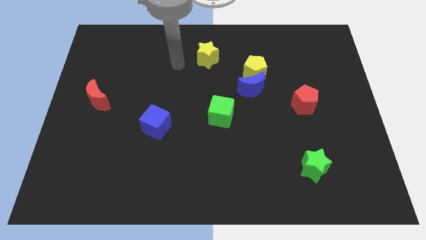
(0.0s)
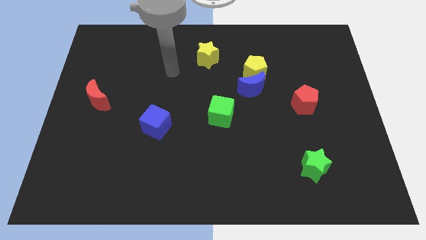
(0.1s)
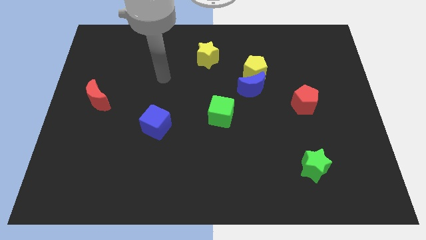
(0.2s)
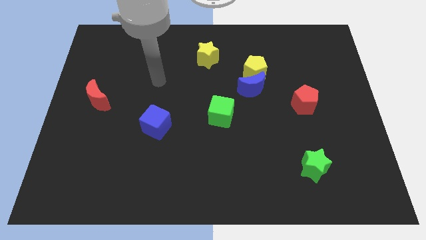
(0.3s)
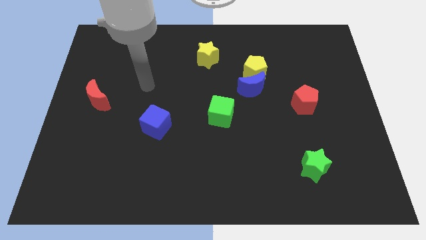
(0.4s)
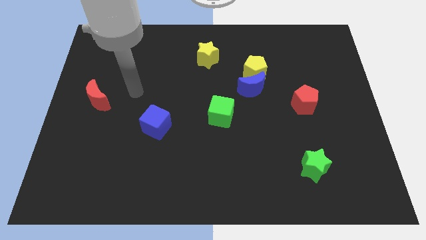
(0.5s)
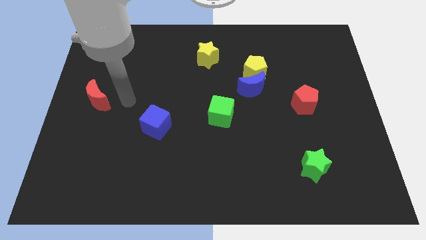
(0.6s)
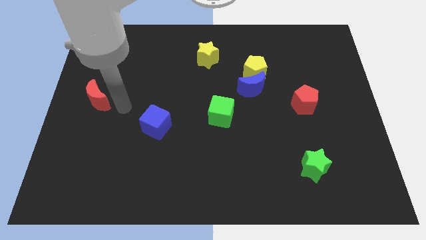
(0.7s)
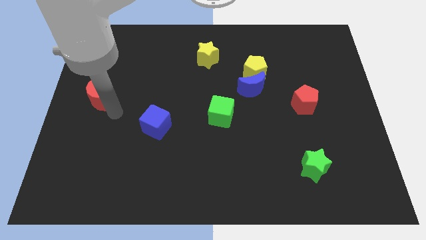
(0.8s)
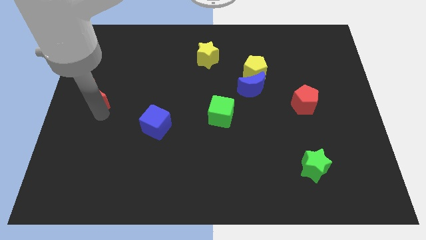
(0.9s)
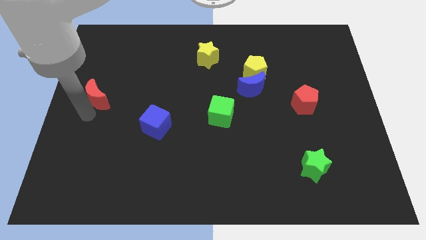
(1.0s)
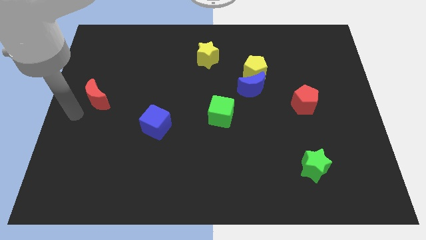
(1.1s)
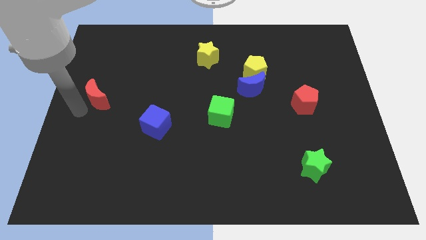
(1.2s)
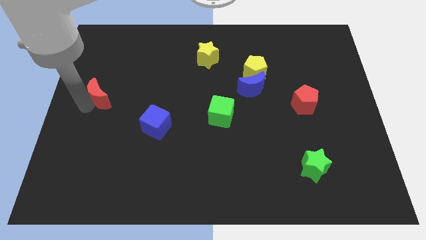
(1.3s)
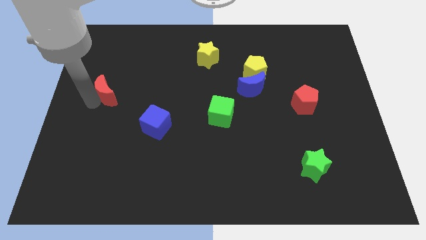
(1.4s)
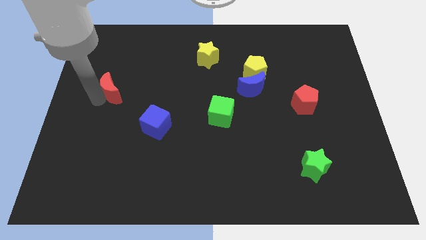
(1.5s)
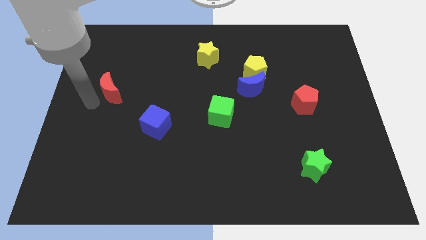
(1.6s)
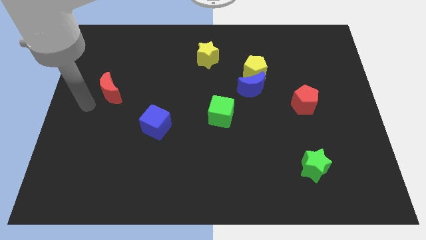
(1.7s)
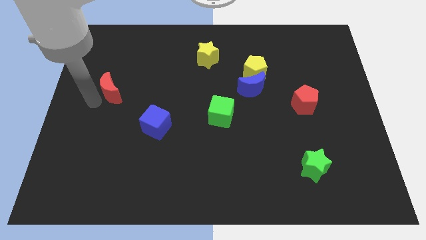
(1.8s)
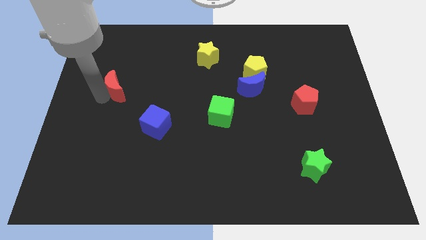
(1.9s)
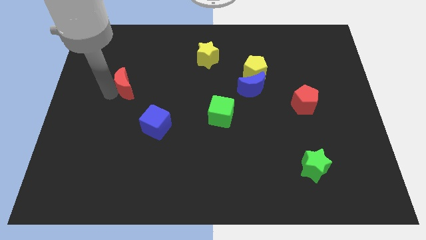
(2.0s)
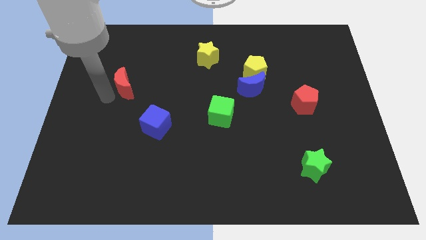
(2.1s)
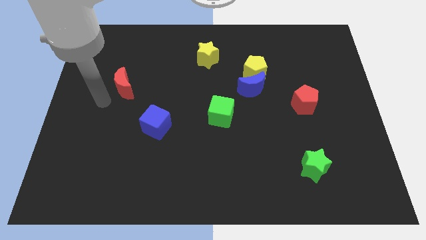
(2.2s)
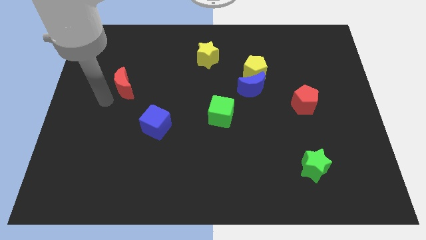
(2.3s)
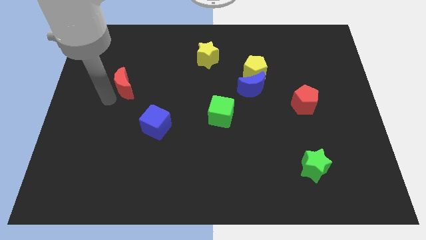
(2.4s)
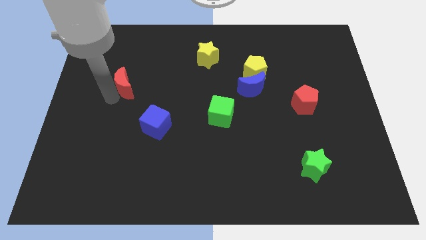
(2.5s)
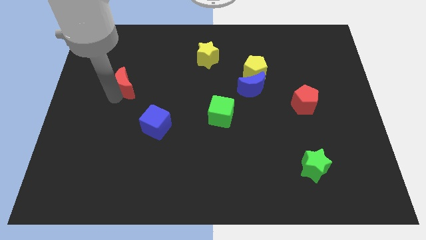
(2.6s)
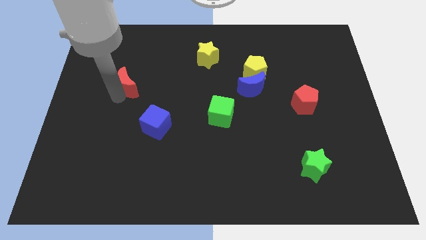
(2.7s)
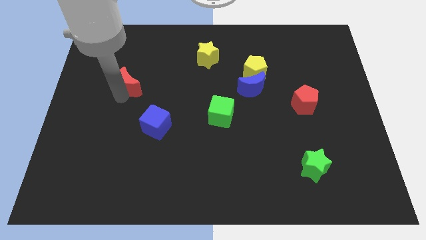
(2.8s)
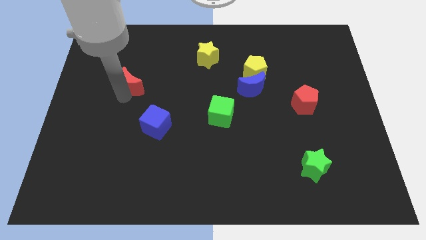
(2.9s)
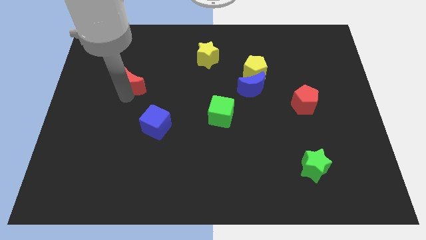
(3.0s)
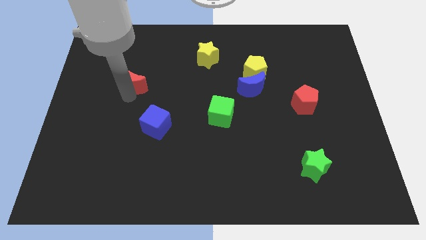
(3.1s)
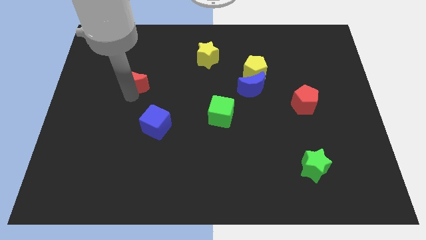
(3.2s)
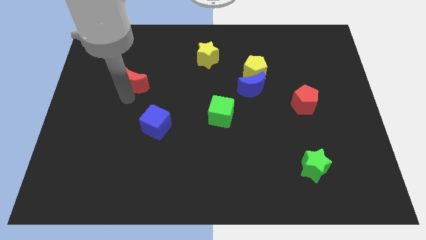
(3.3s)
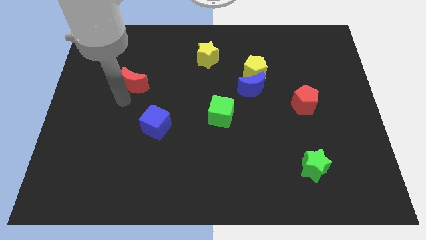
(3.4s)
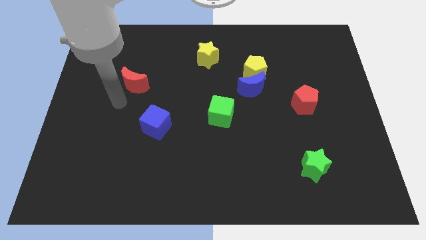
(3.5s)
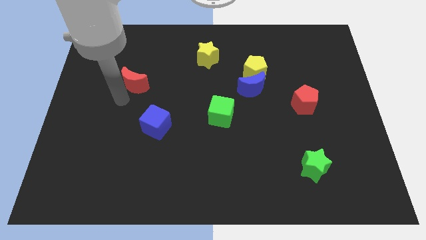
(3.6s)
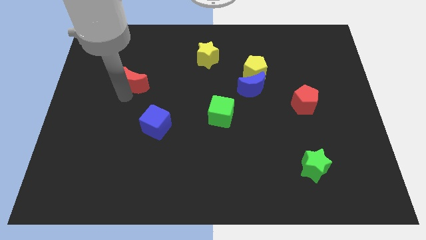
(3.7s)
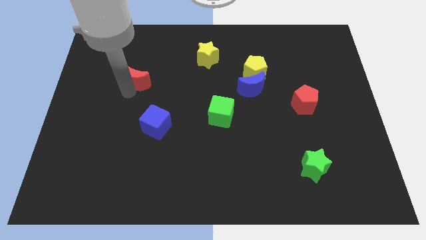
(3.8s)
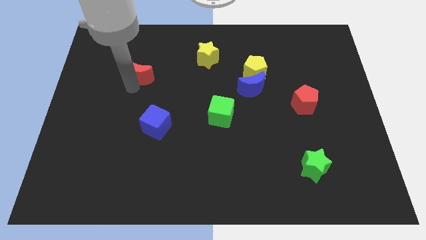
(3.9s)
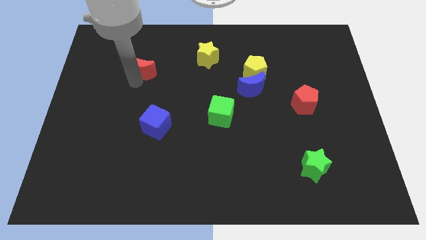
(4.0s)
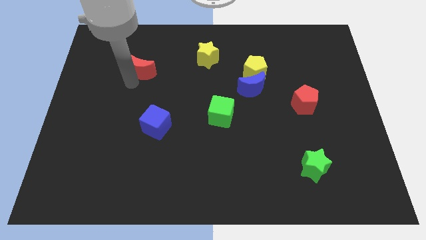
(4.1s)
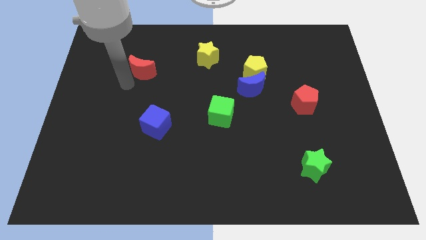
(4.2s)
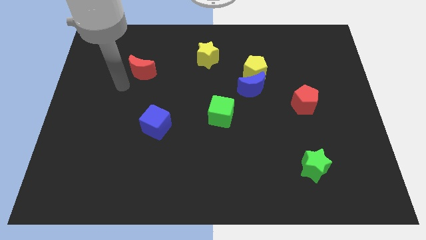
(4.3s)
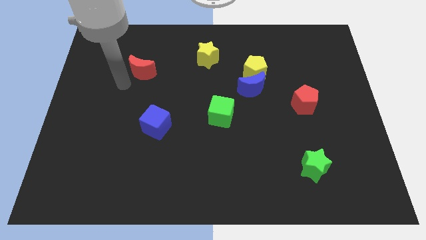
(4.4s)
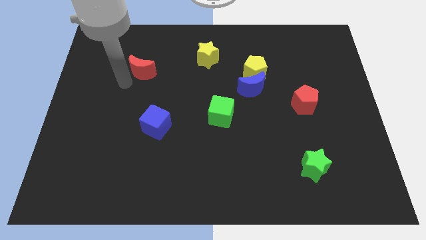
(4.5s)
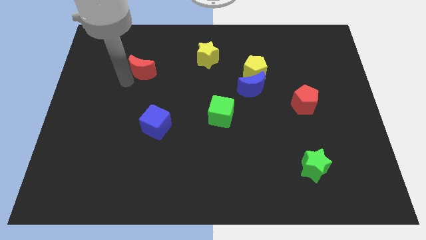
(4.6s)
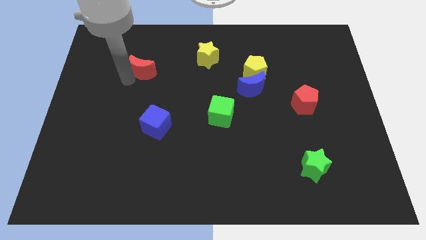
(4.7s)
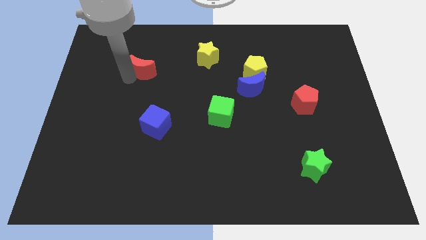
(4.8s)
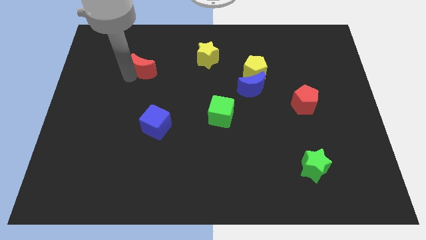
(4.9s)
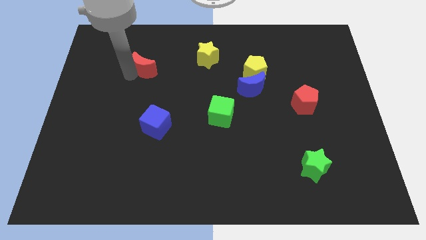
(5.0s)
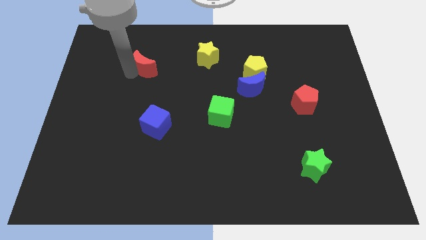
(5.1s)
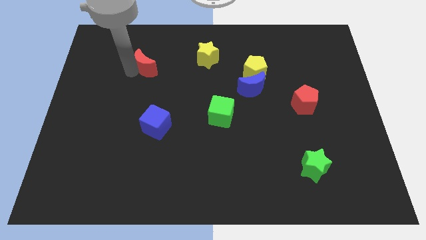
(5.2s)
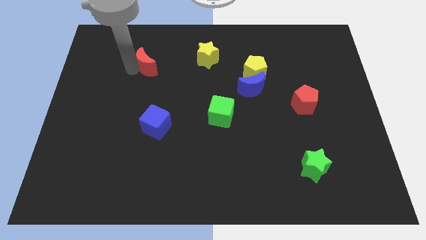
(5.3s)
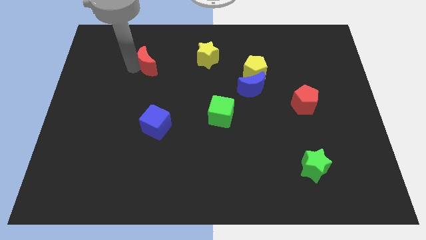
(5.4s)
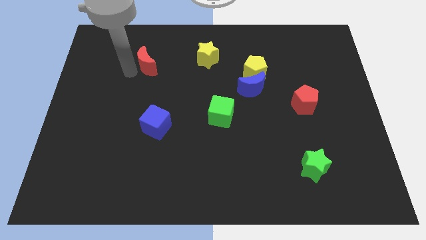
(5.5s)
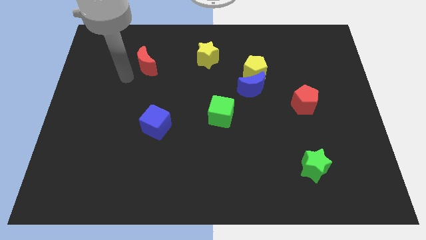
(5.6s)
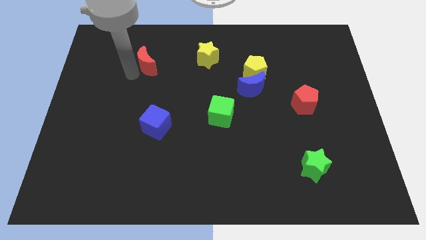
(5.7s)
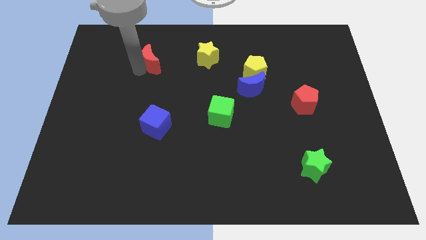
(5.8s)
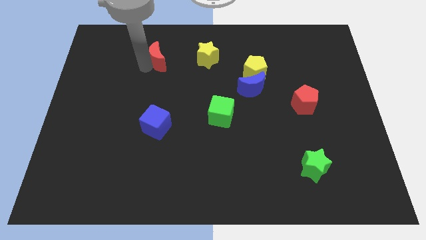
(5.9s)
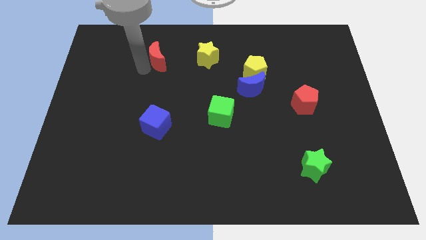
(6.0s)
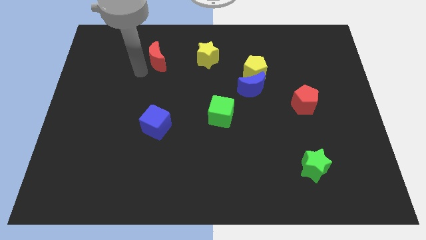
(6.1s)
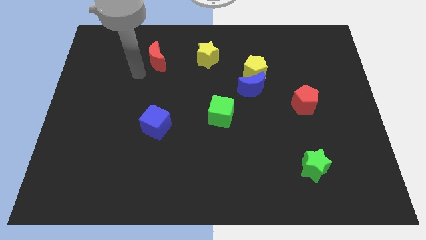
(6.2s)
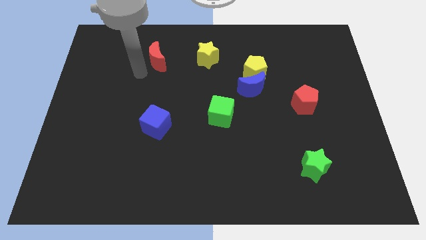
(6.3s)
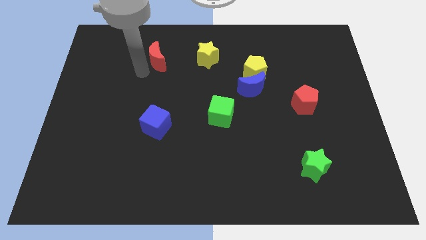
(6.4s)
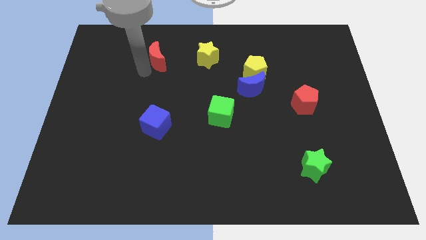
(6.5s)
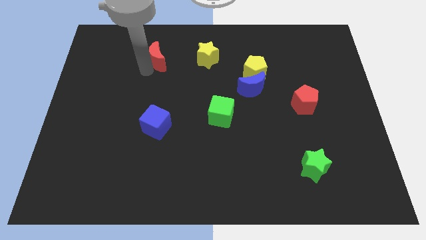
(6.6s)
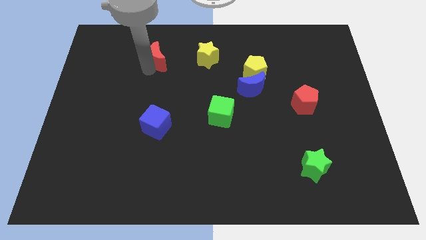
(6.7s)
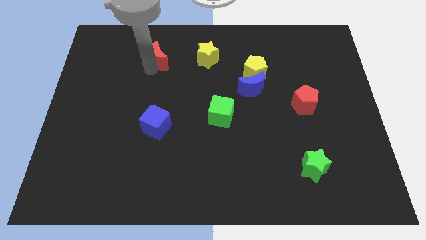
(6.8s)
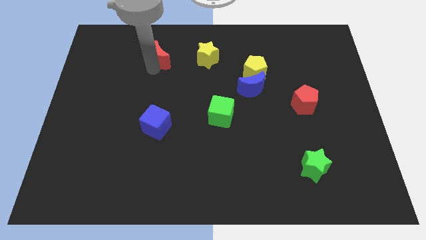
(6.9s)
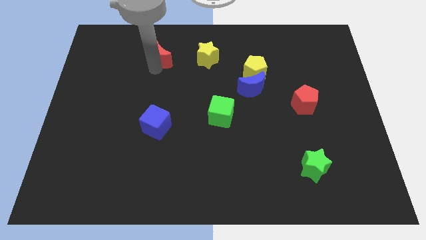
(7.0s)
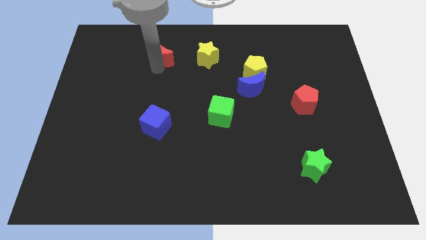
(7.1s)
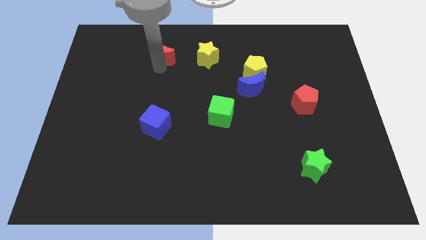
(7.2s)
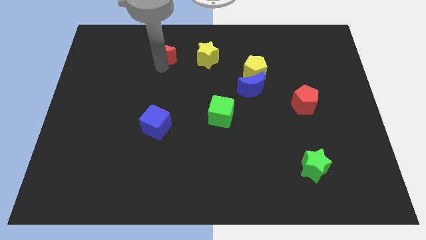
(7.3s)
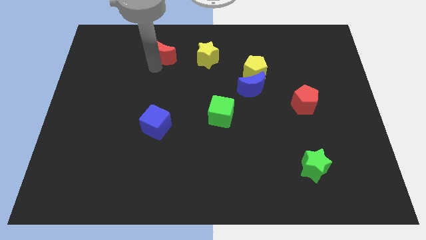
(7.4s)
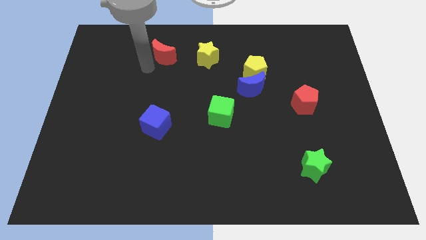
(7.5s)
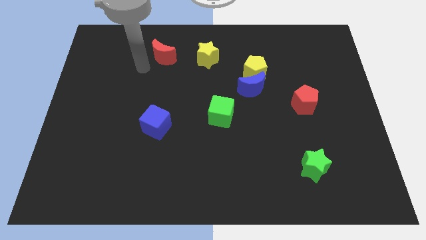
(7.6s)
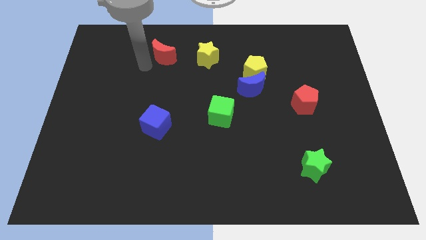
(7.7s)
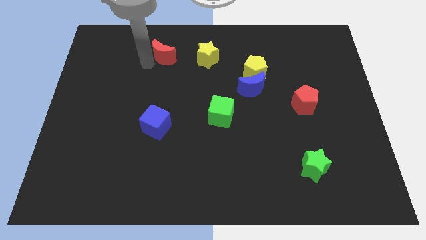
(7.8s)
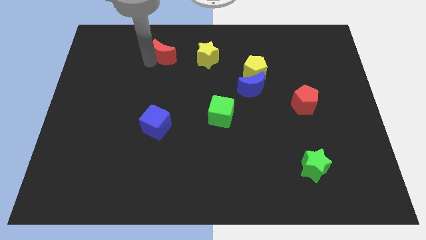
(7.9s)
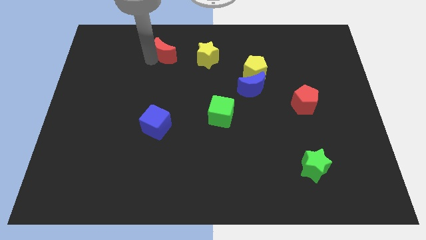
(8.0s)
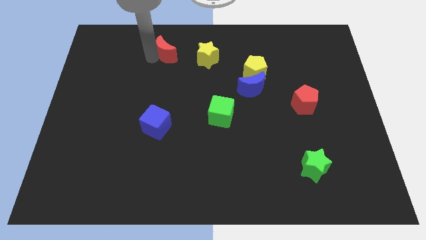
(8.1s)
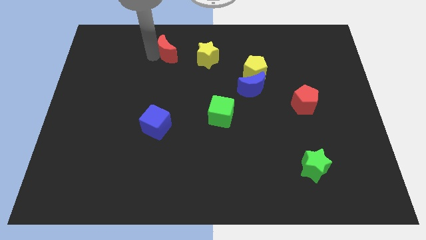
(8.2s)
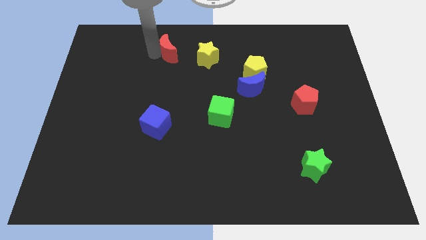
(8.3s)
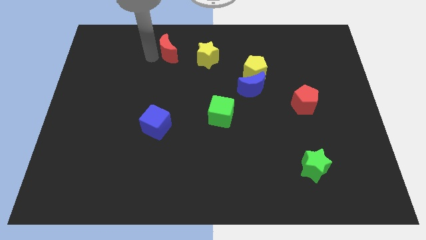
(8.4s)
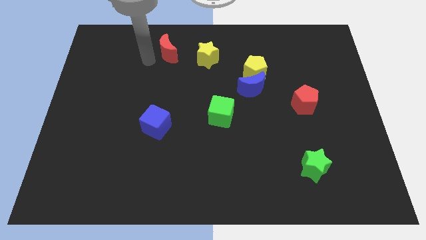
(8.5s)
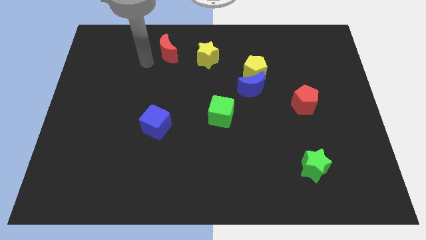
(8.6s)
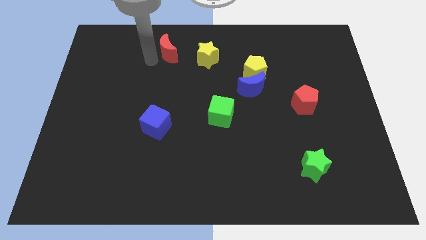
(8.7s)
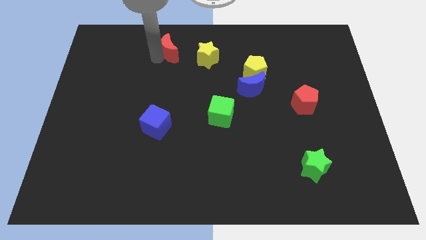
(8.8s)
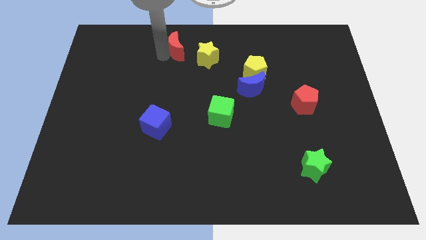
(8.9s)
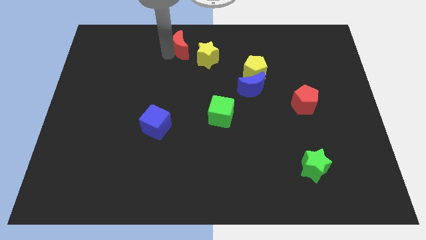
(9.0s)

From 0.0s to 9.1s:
move the red moon to the towards your base
